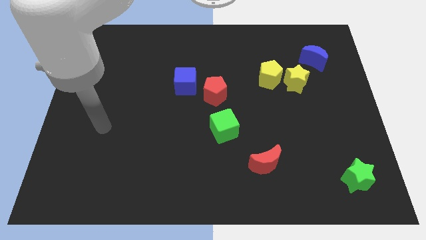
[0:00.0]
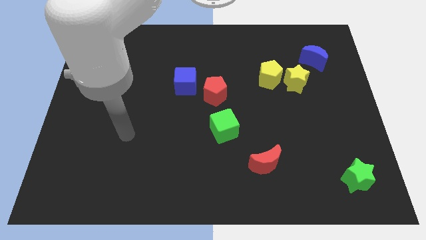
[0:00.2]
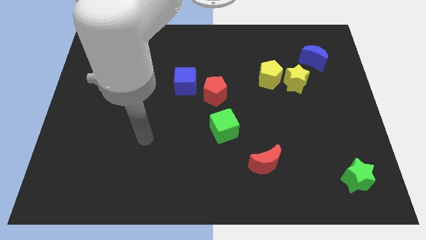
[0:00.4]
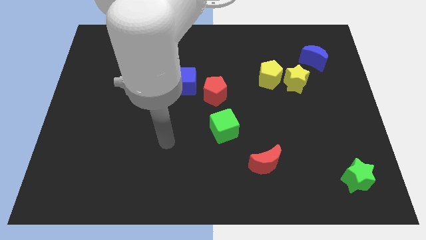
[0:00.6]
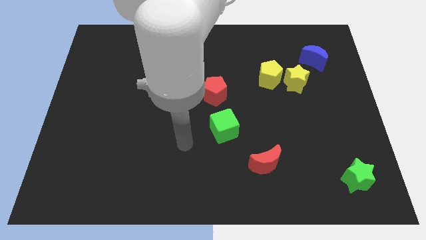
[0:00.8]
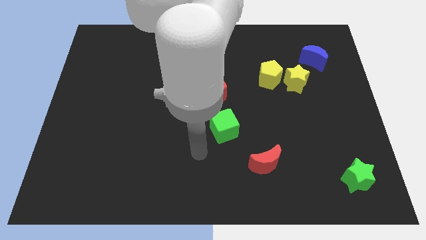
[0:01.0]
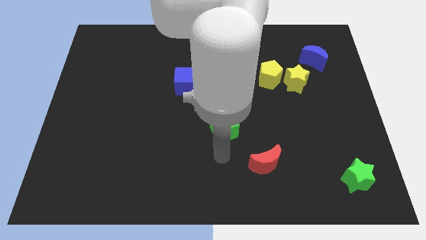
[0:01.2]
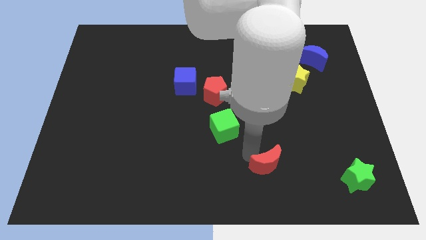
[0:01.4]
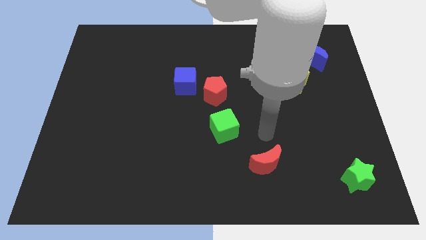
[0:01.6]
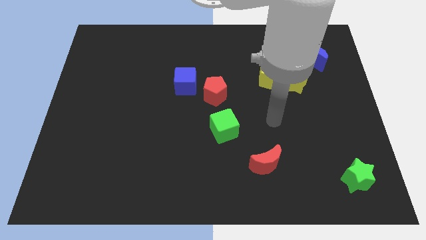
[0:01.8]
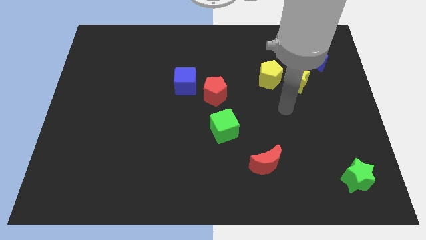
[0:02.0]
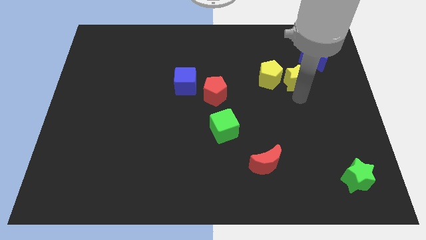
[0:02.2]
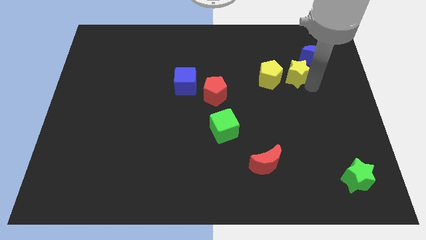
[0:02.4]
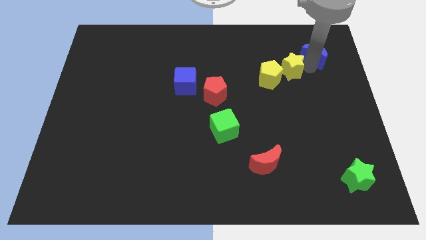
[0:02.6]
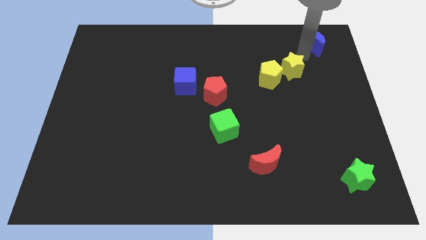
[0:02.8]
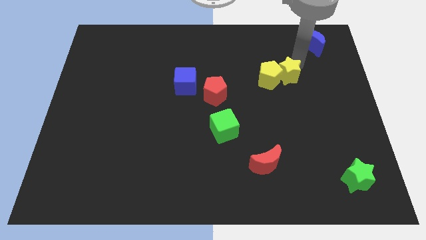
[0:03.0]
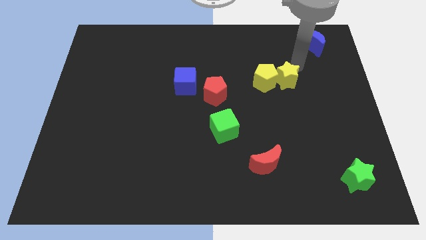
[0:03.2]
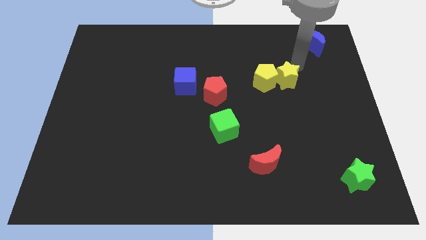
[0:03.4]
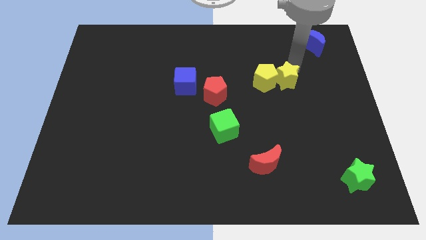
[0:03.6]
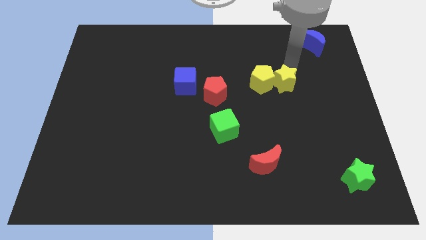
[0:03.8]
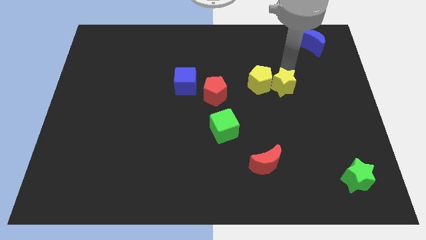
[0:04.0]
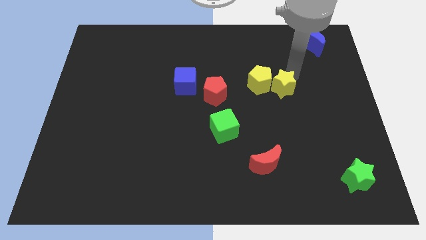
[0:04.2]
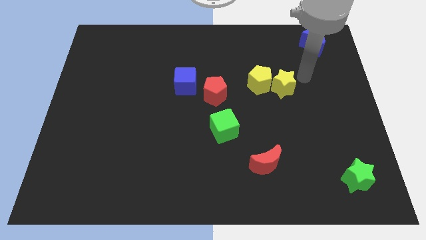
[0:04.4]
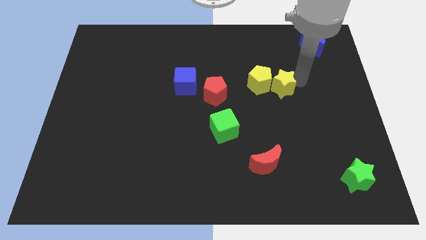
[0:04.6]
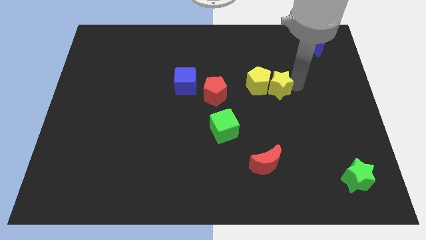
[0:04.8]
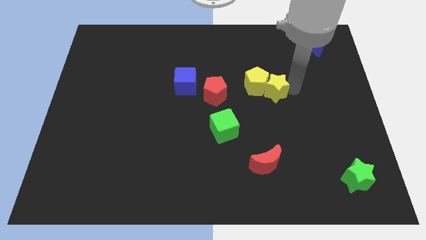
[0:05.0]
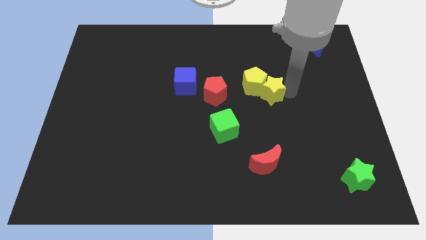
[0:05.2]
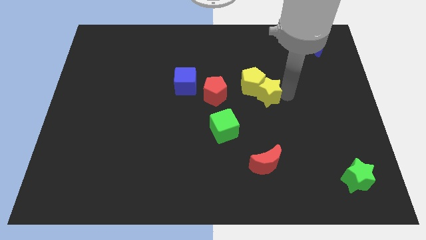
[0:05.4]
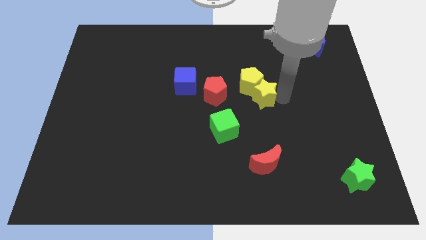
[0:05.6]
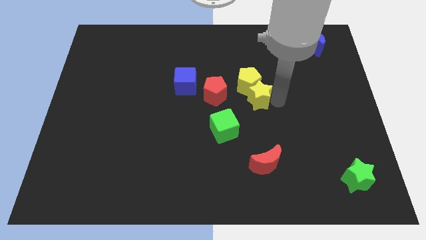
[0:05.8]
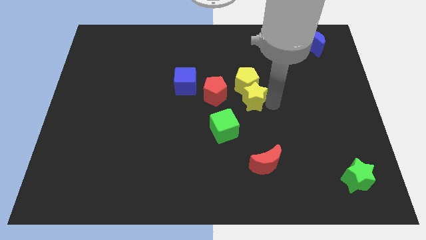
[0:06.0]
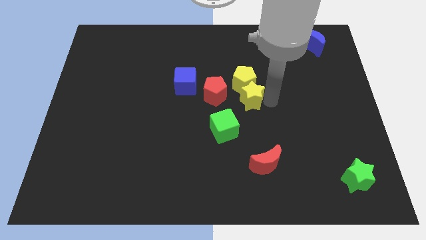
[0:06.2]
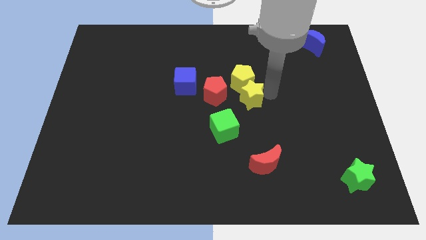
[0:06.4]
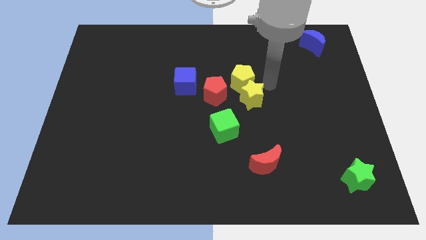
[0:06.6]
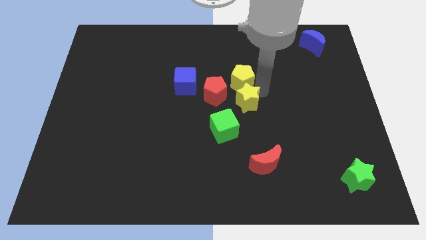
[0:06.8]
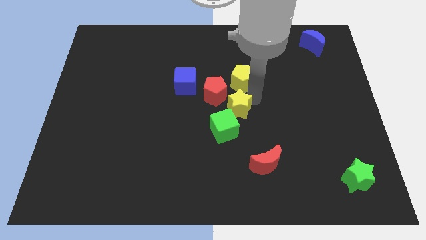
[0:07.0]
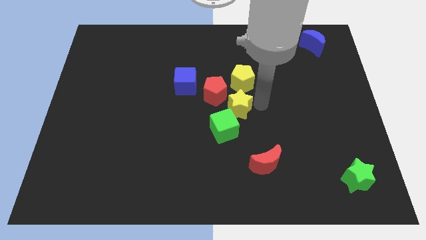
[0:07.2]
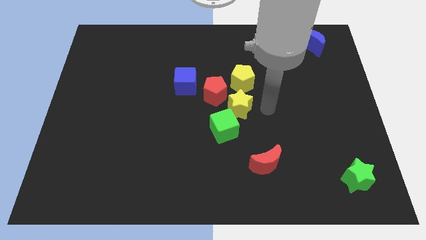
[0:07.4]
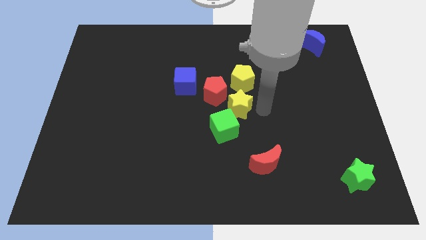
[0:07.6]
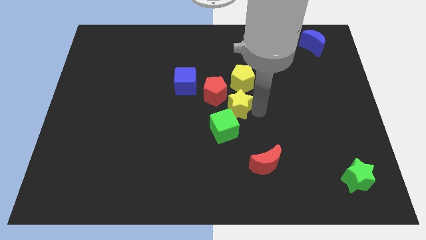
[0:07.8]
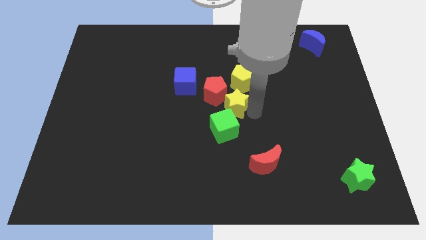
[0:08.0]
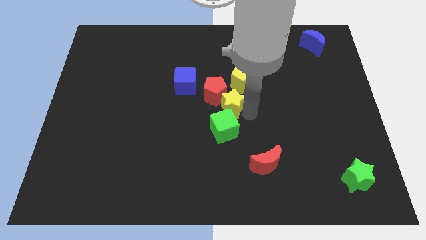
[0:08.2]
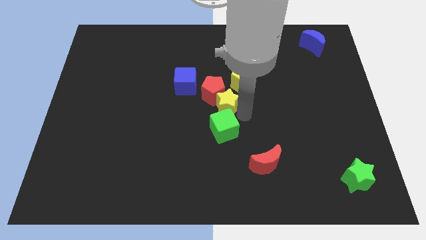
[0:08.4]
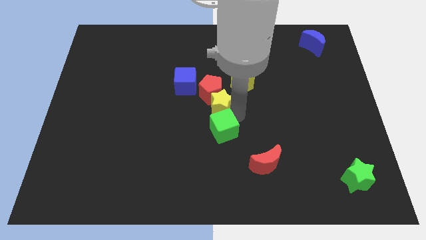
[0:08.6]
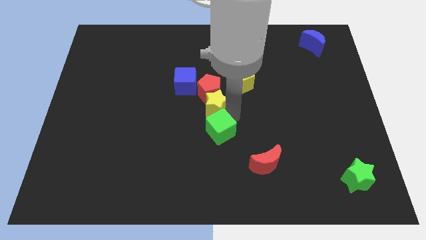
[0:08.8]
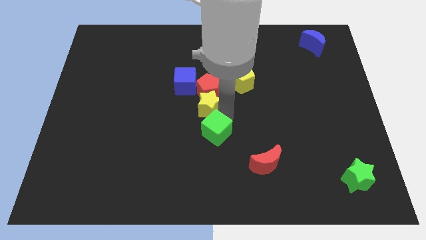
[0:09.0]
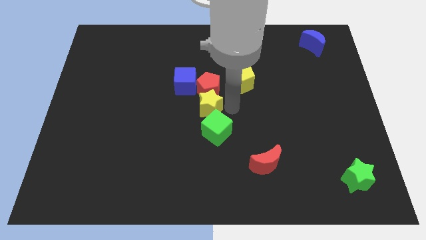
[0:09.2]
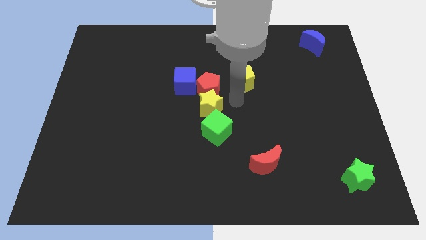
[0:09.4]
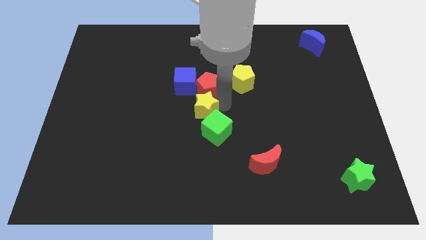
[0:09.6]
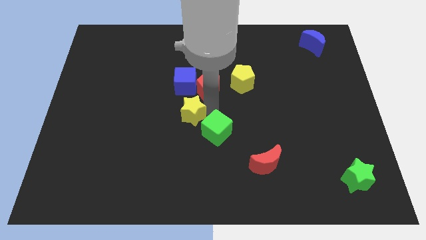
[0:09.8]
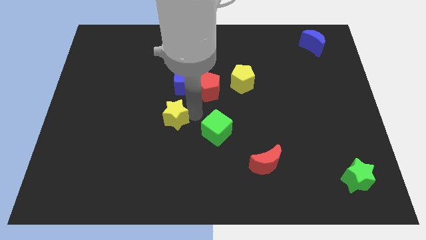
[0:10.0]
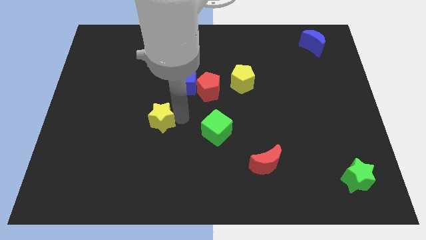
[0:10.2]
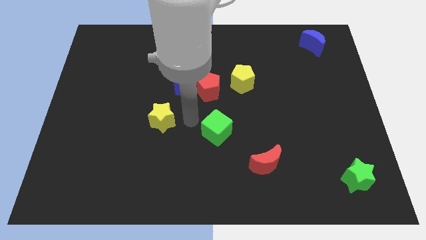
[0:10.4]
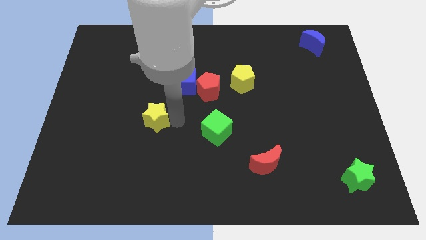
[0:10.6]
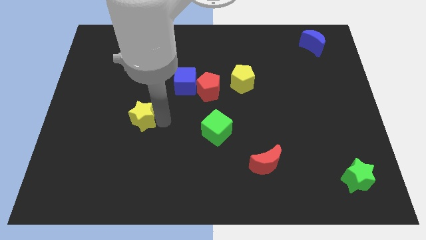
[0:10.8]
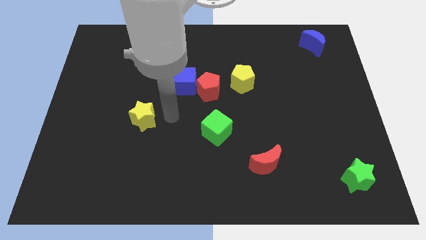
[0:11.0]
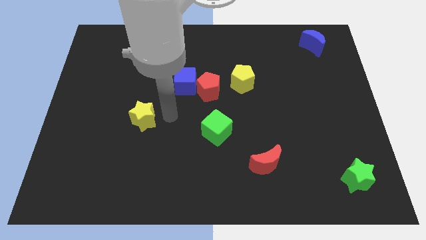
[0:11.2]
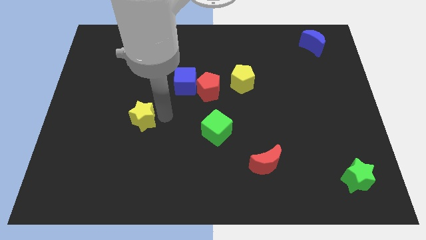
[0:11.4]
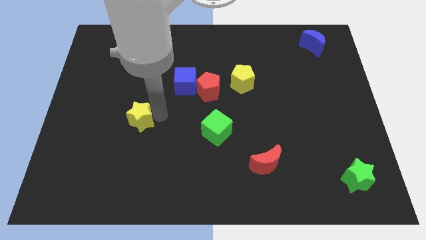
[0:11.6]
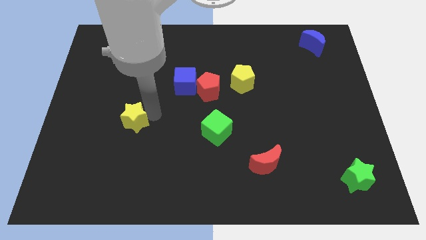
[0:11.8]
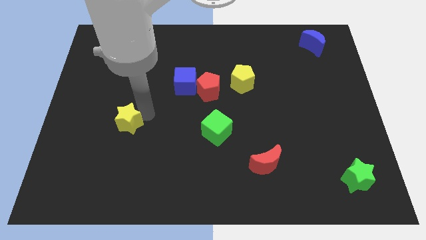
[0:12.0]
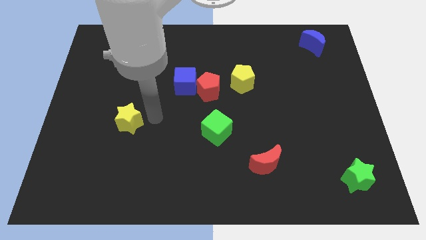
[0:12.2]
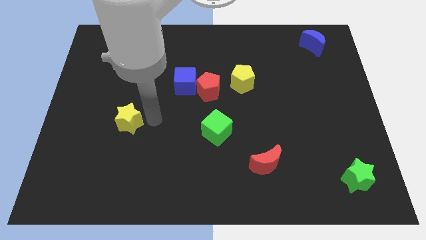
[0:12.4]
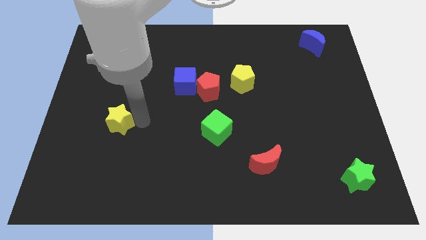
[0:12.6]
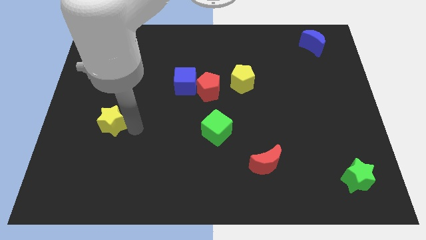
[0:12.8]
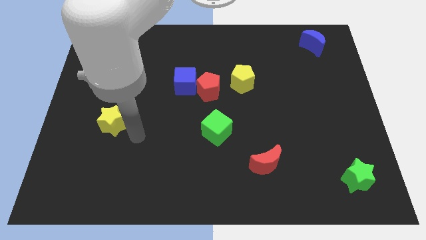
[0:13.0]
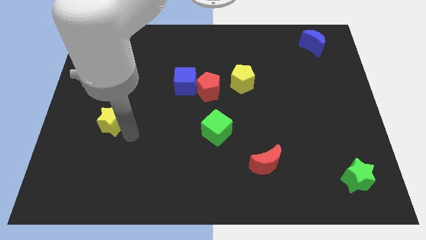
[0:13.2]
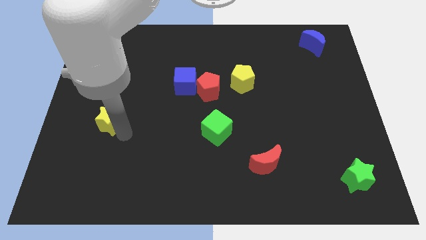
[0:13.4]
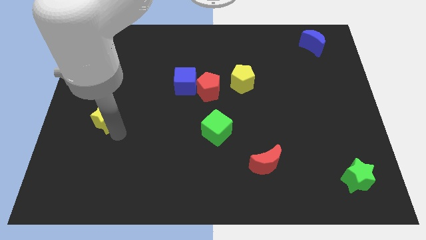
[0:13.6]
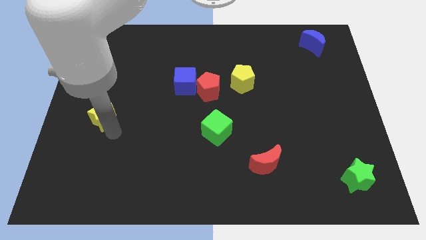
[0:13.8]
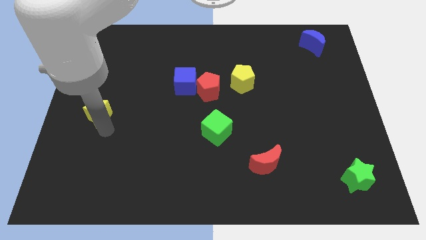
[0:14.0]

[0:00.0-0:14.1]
put the yellow star to the left side
